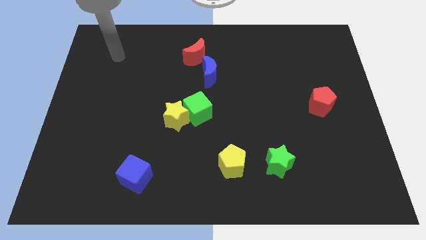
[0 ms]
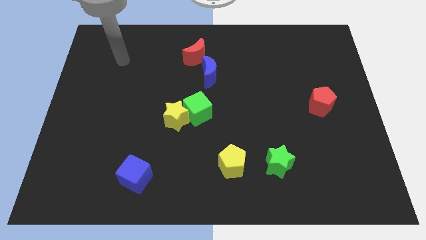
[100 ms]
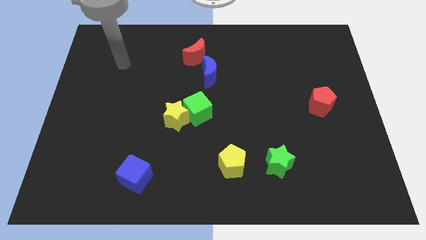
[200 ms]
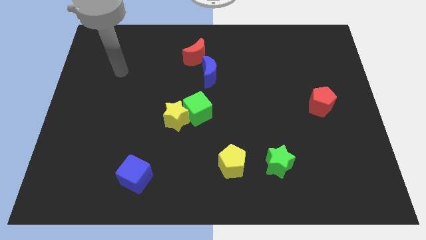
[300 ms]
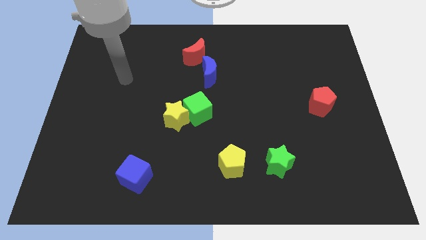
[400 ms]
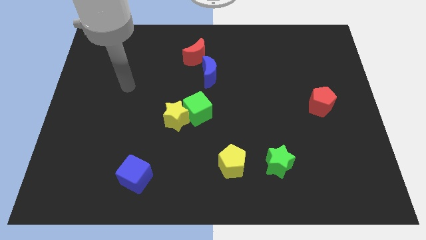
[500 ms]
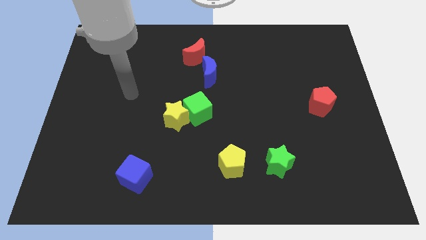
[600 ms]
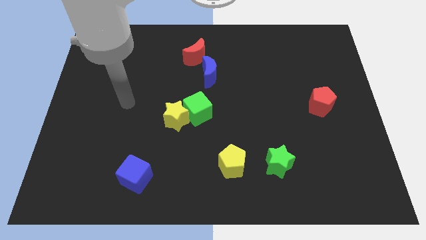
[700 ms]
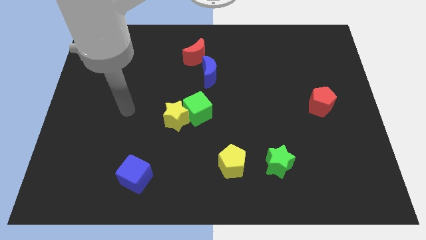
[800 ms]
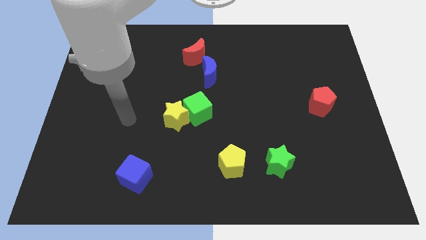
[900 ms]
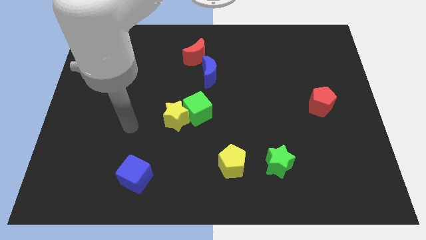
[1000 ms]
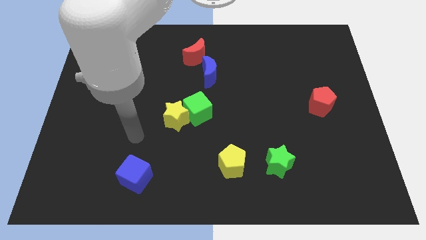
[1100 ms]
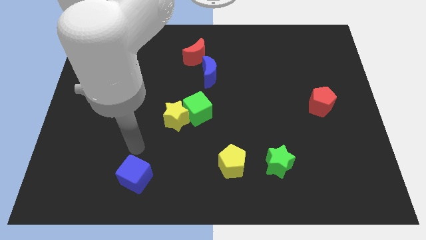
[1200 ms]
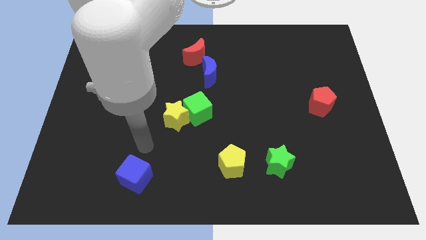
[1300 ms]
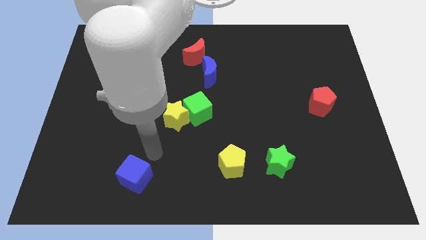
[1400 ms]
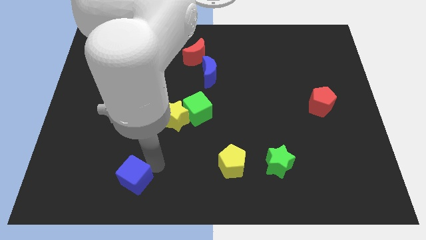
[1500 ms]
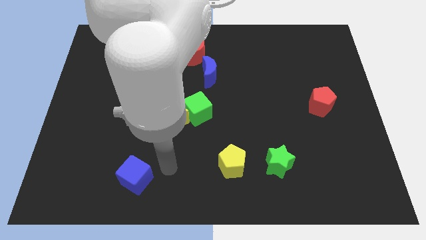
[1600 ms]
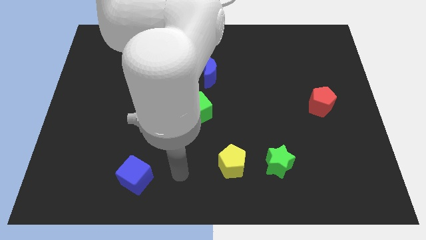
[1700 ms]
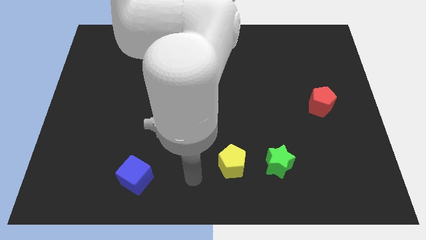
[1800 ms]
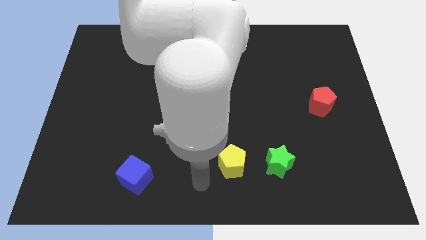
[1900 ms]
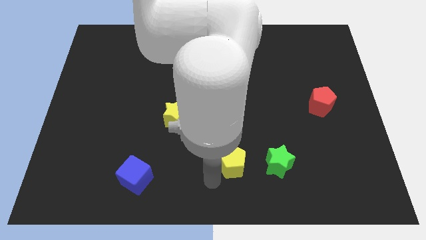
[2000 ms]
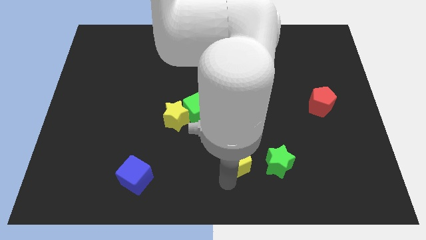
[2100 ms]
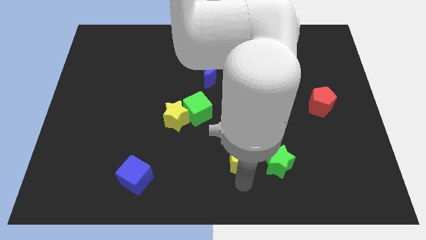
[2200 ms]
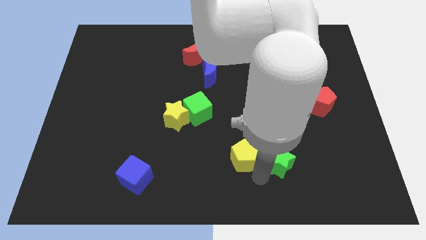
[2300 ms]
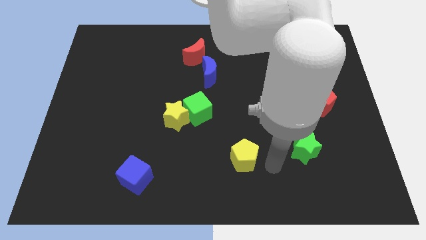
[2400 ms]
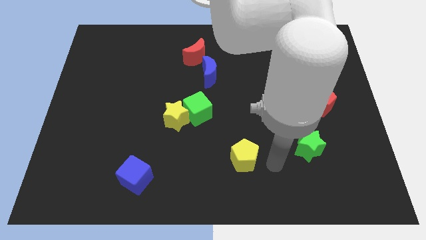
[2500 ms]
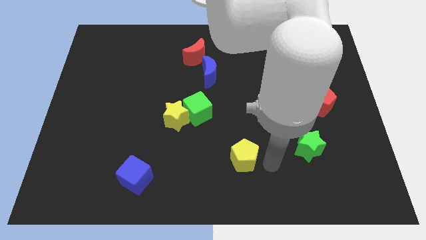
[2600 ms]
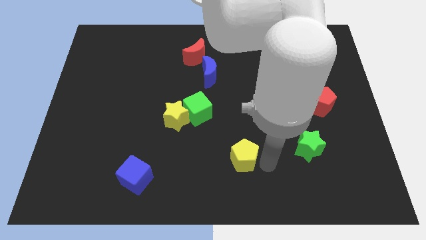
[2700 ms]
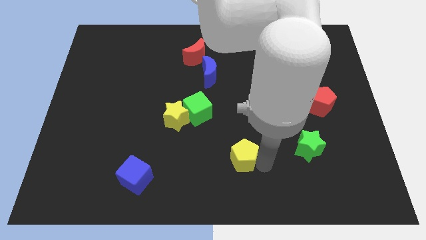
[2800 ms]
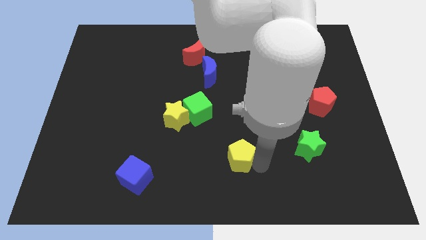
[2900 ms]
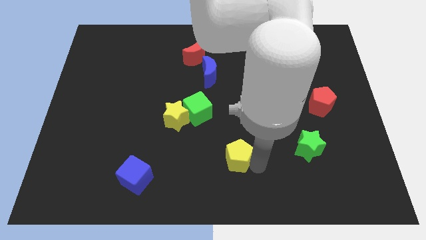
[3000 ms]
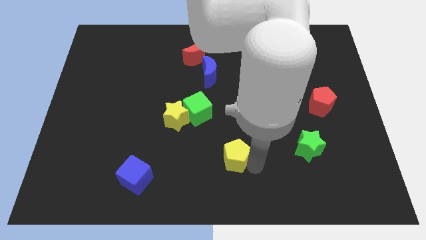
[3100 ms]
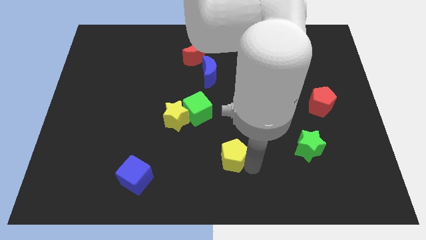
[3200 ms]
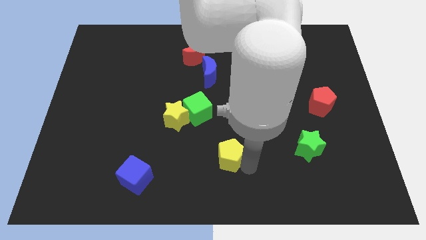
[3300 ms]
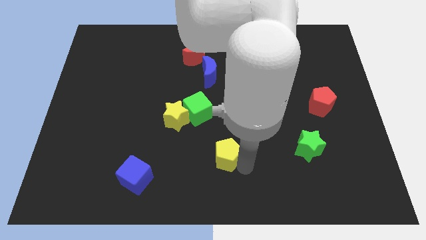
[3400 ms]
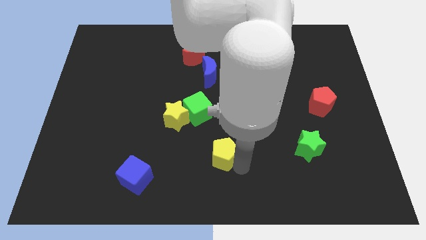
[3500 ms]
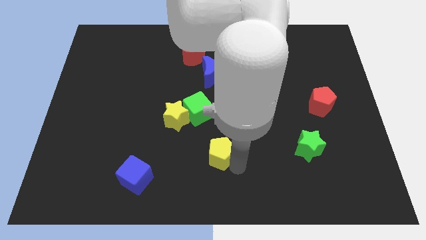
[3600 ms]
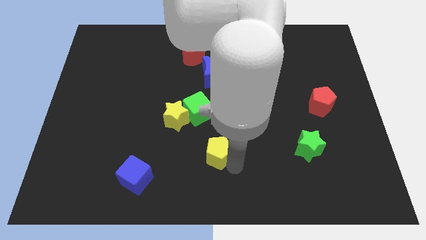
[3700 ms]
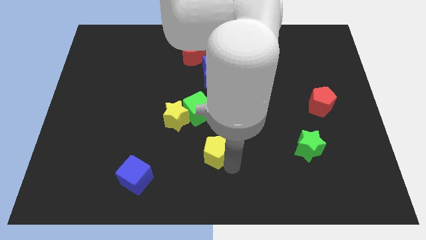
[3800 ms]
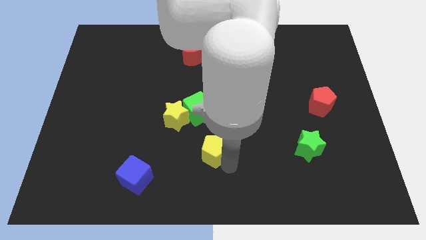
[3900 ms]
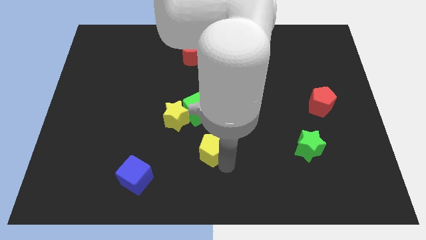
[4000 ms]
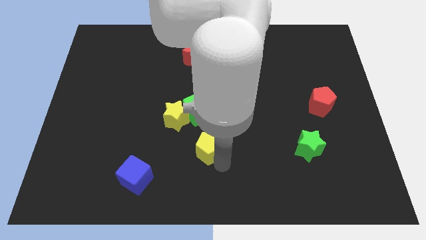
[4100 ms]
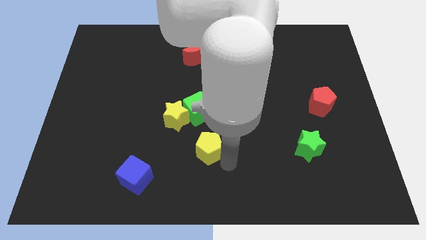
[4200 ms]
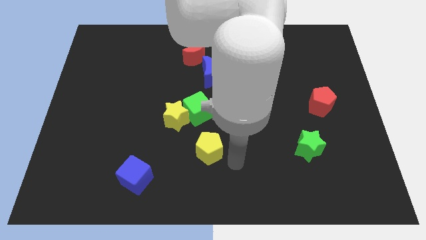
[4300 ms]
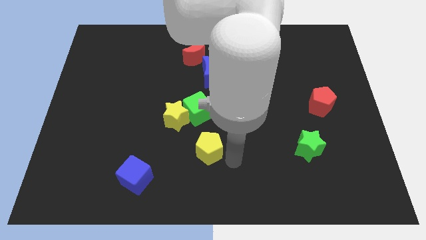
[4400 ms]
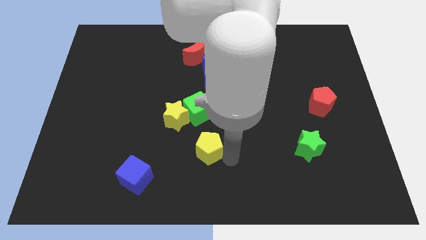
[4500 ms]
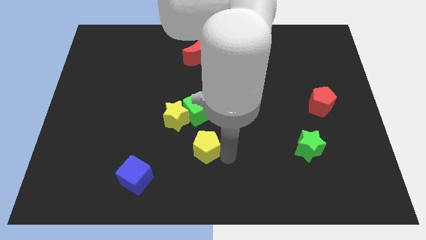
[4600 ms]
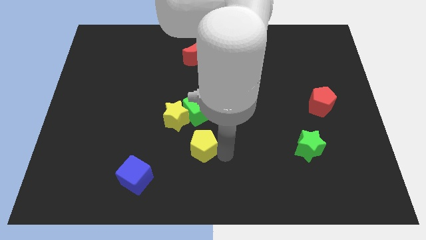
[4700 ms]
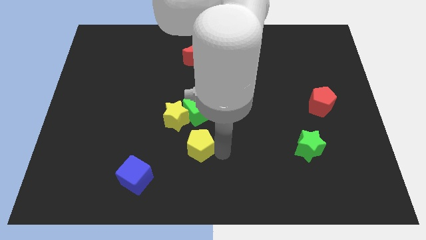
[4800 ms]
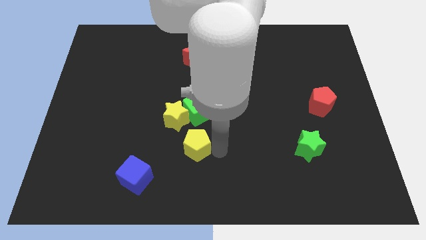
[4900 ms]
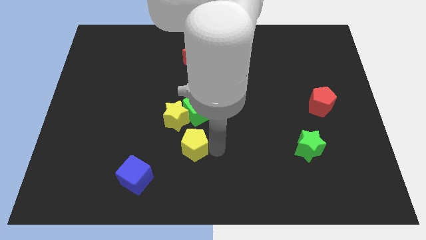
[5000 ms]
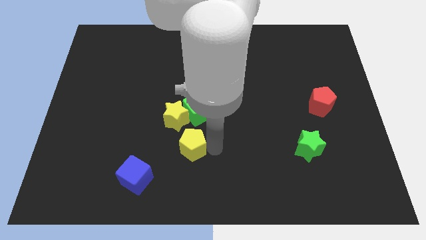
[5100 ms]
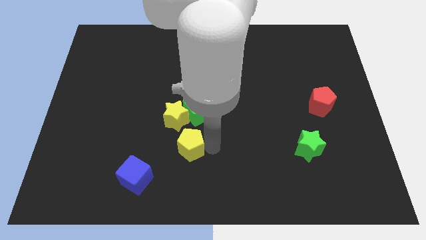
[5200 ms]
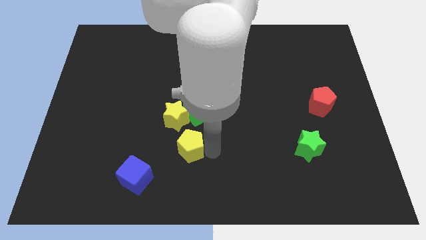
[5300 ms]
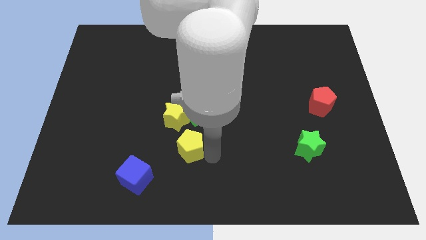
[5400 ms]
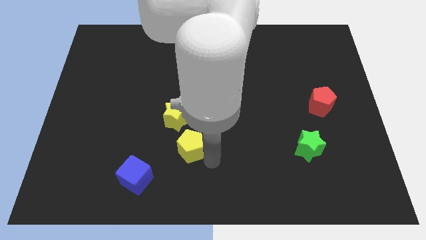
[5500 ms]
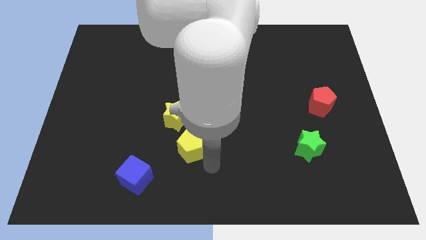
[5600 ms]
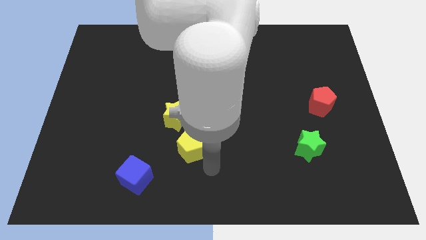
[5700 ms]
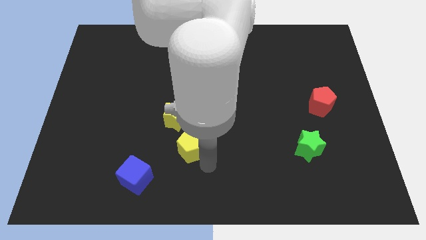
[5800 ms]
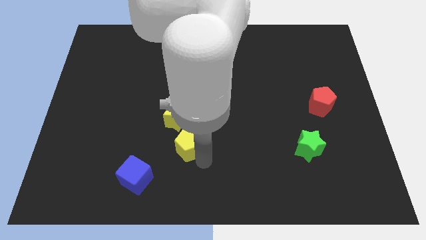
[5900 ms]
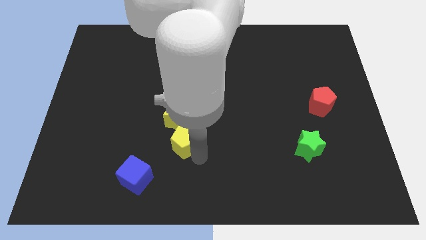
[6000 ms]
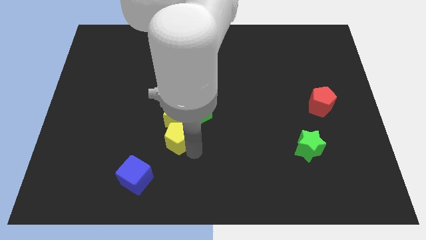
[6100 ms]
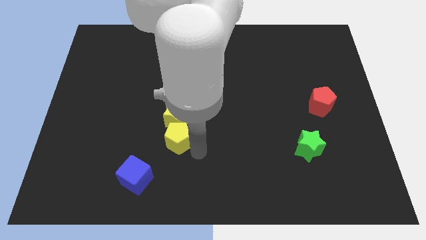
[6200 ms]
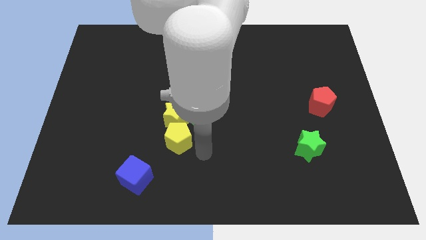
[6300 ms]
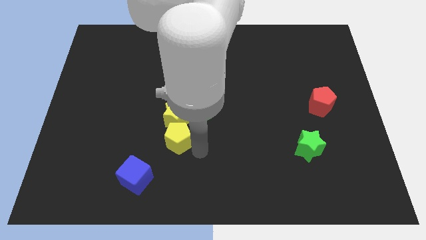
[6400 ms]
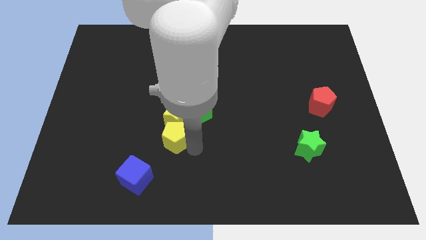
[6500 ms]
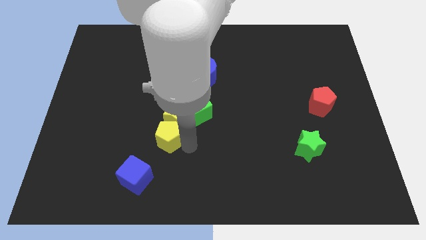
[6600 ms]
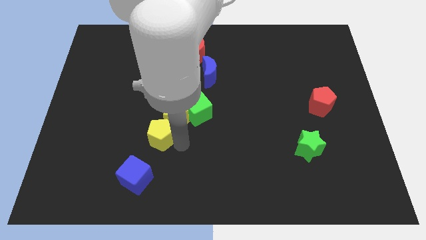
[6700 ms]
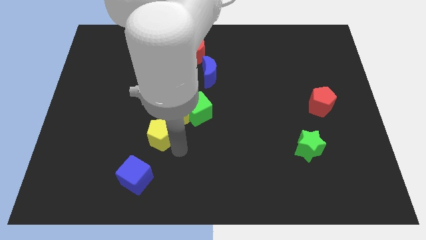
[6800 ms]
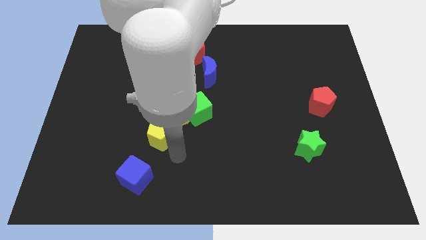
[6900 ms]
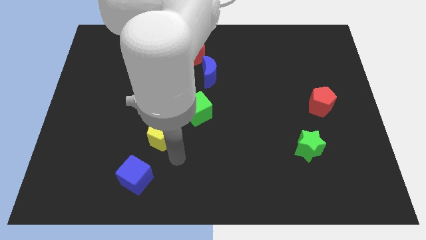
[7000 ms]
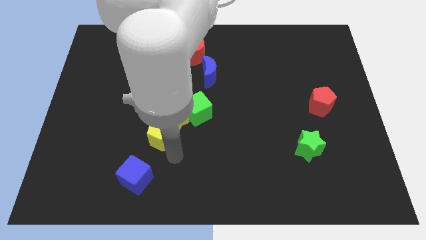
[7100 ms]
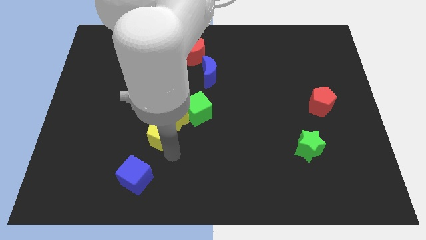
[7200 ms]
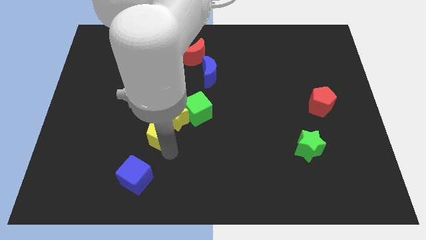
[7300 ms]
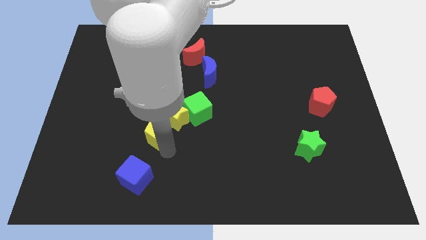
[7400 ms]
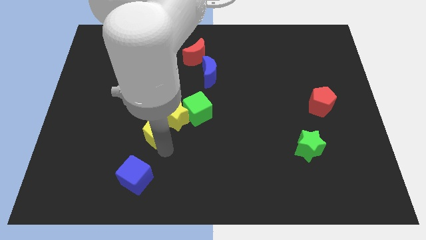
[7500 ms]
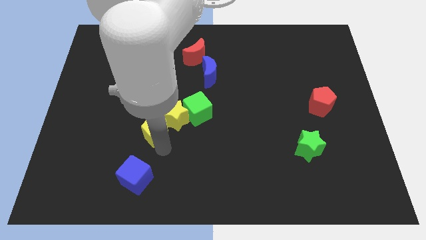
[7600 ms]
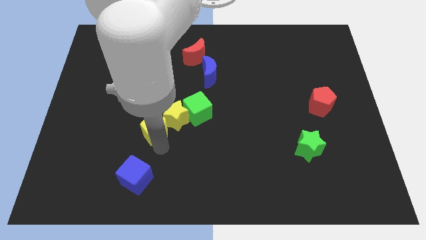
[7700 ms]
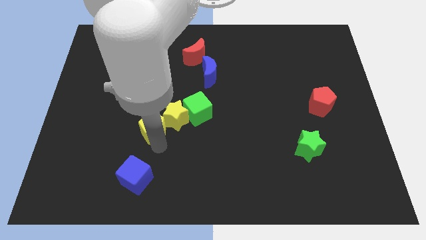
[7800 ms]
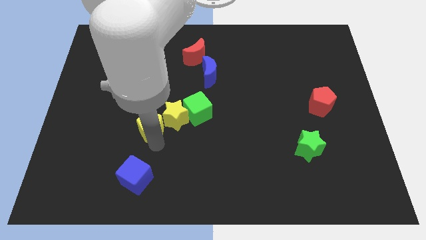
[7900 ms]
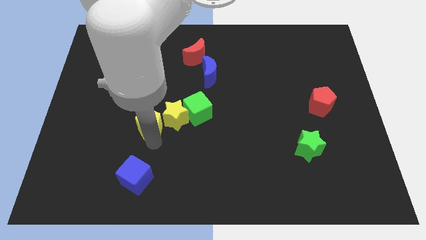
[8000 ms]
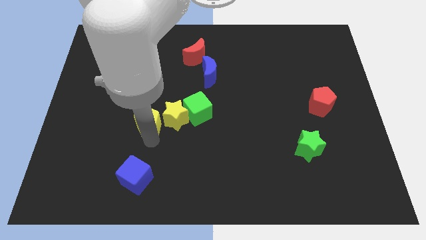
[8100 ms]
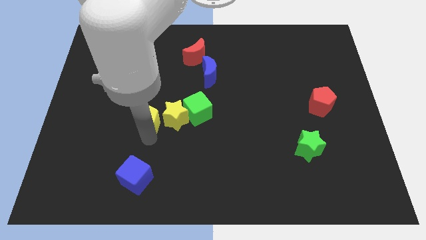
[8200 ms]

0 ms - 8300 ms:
move the yellow pentagon upwards and to the left diagonally

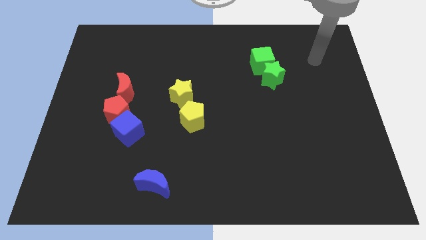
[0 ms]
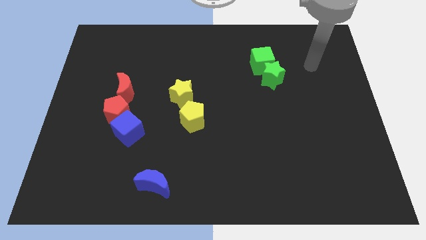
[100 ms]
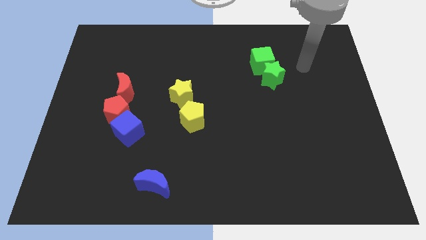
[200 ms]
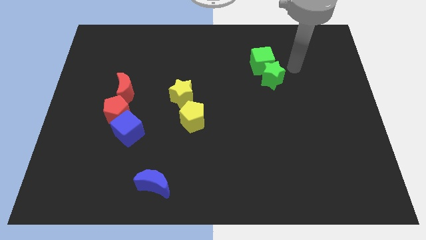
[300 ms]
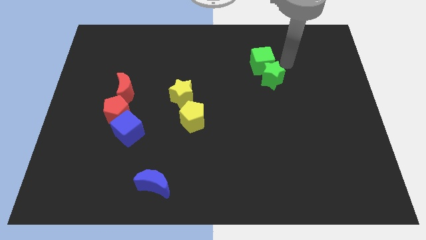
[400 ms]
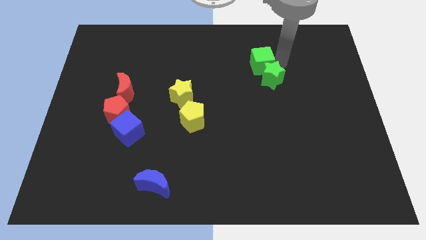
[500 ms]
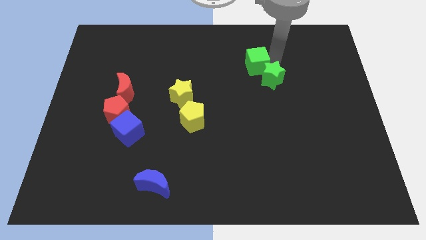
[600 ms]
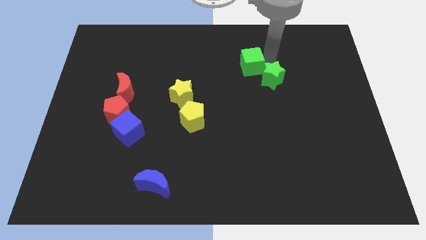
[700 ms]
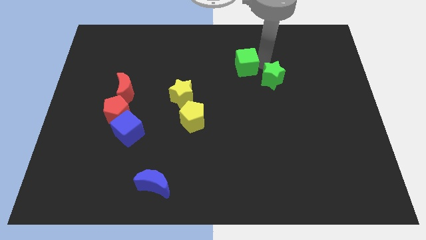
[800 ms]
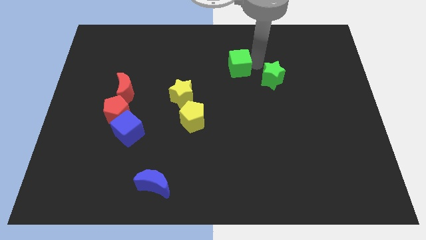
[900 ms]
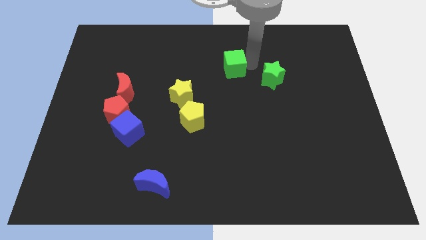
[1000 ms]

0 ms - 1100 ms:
move the green cube left a little bit
